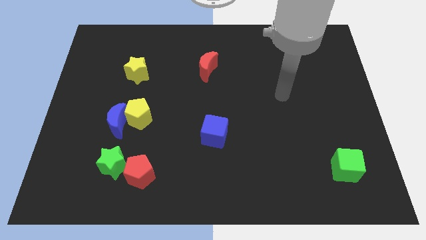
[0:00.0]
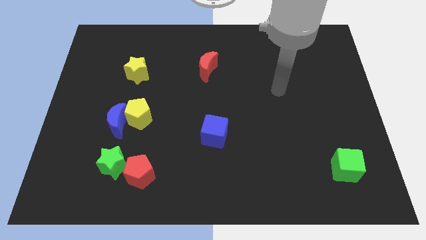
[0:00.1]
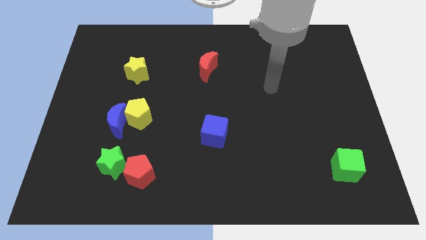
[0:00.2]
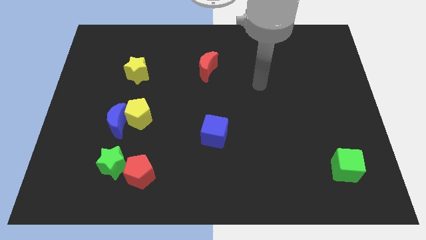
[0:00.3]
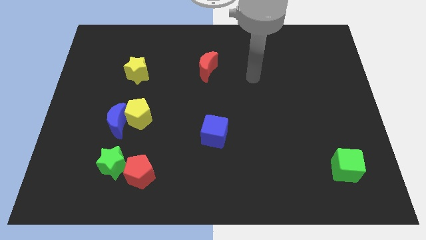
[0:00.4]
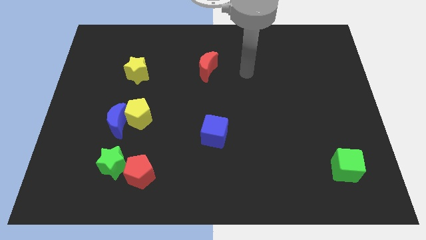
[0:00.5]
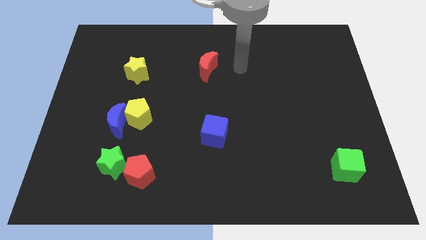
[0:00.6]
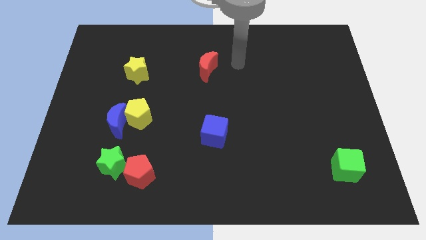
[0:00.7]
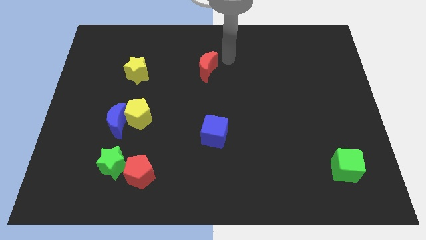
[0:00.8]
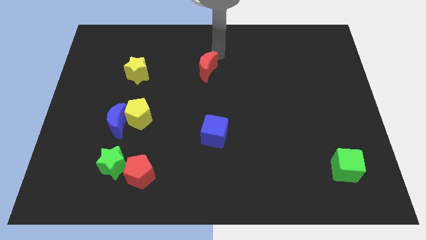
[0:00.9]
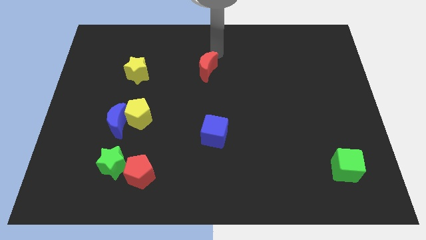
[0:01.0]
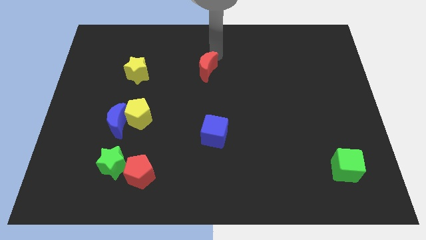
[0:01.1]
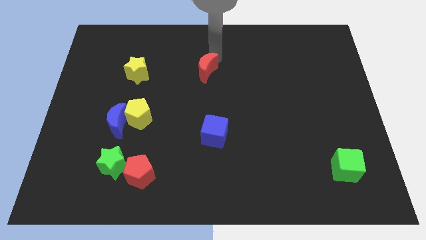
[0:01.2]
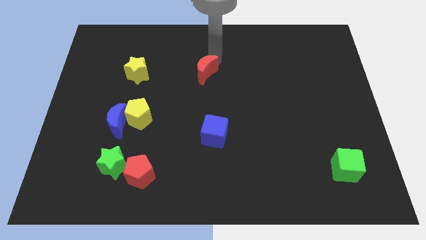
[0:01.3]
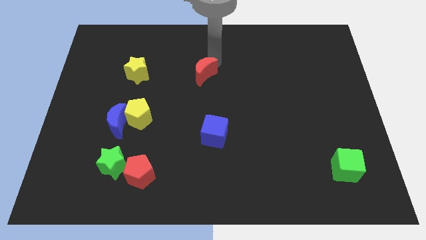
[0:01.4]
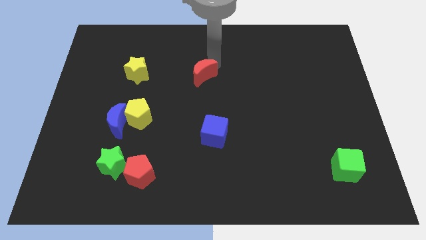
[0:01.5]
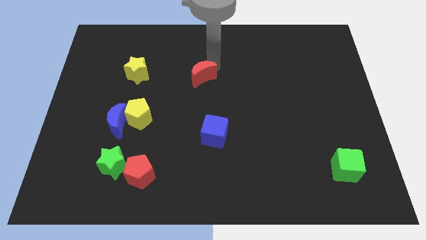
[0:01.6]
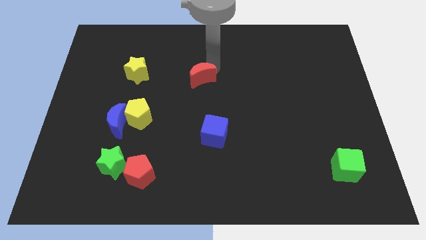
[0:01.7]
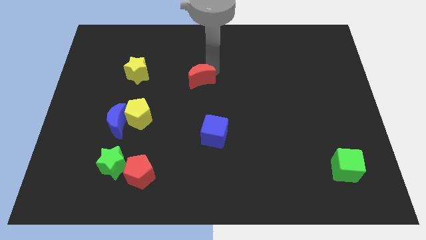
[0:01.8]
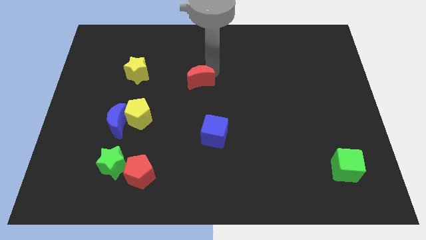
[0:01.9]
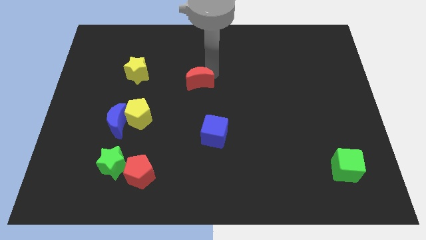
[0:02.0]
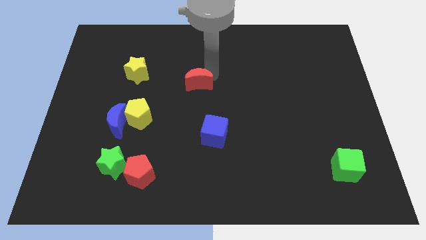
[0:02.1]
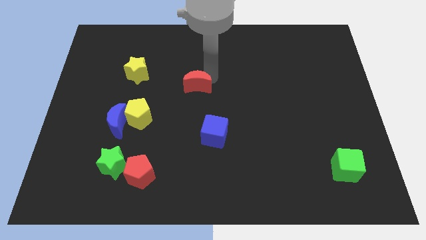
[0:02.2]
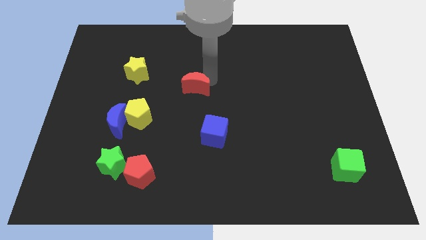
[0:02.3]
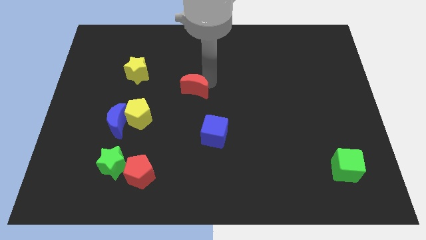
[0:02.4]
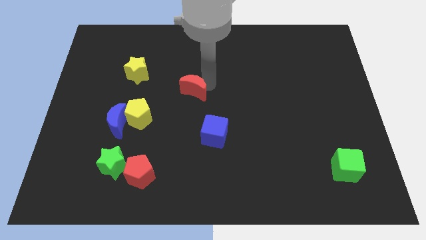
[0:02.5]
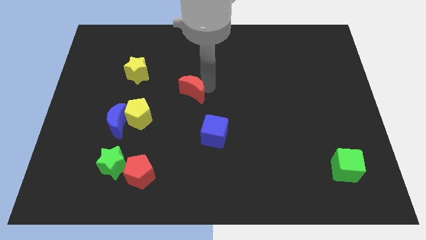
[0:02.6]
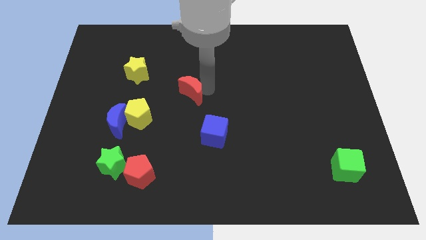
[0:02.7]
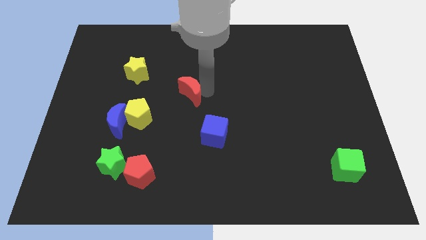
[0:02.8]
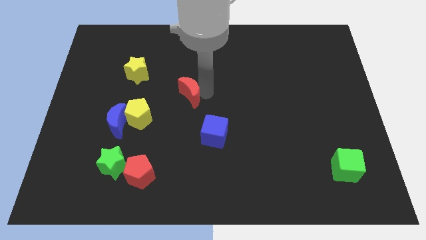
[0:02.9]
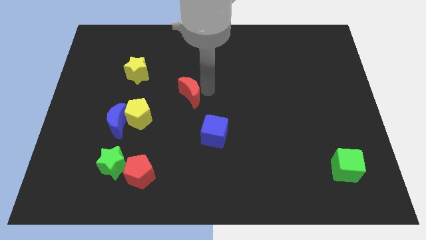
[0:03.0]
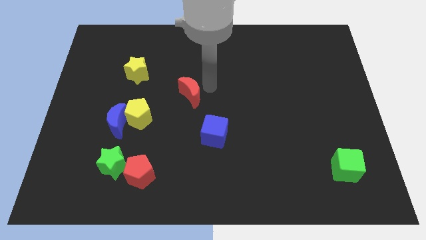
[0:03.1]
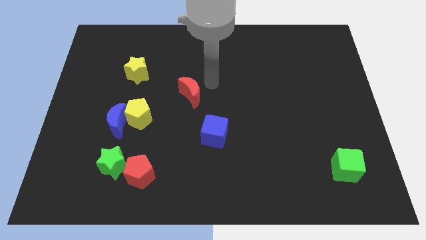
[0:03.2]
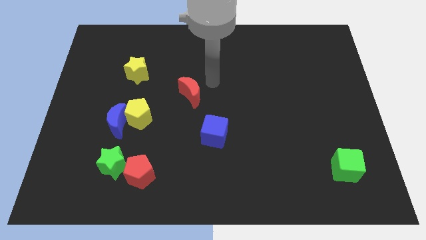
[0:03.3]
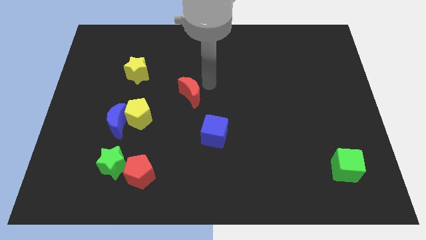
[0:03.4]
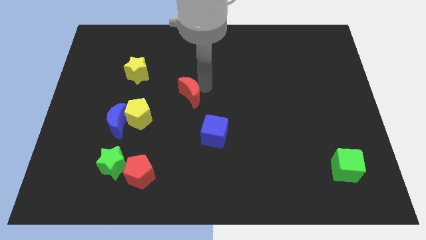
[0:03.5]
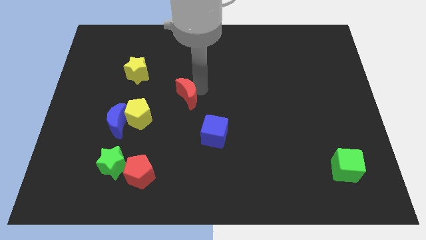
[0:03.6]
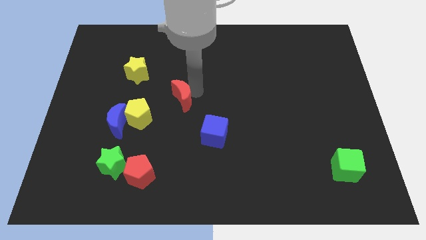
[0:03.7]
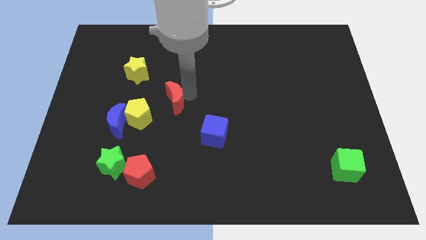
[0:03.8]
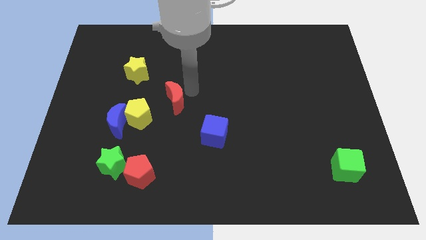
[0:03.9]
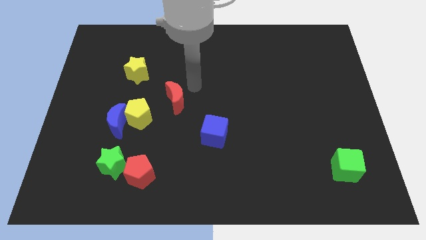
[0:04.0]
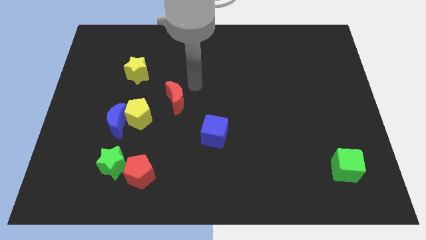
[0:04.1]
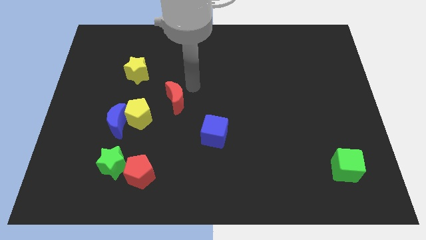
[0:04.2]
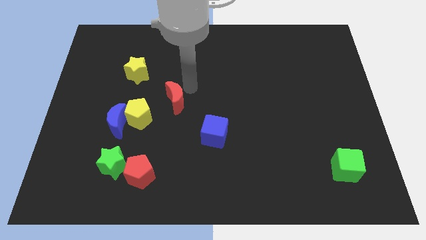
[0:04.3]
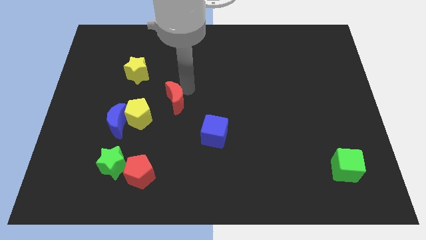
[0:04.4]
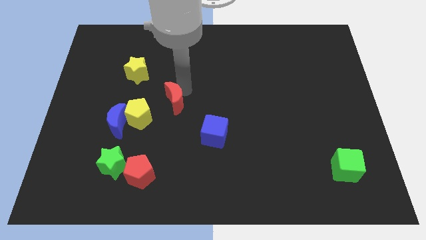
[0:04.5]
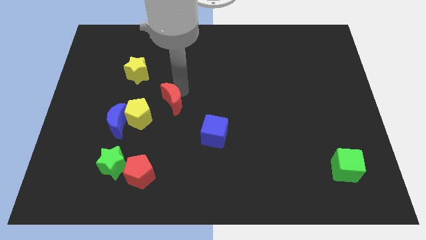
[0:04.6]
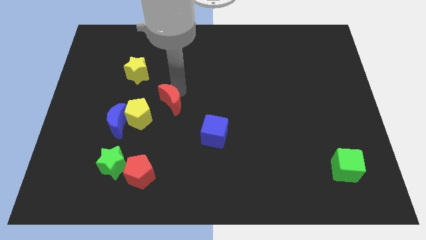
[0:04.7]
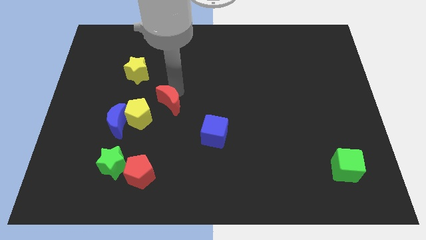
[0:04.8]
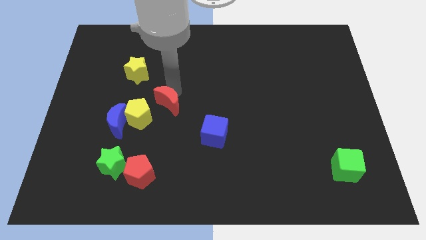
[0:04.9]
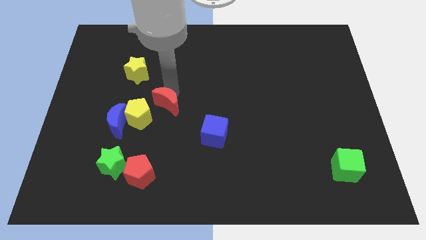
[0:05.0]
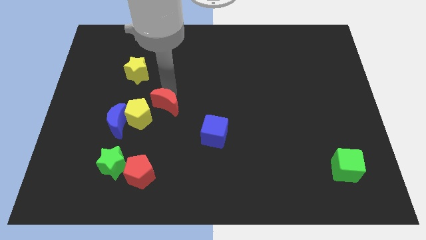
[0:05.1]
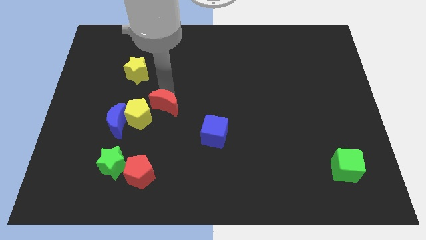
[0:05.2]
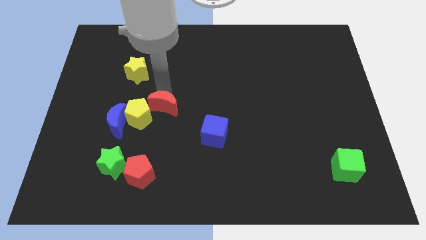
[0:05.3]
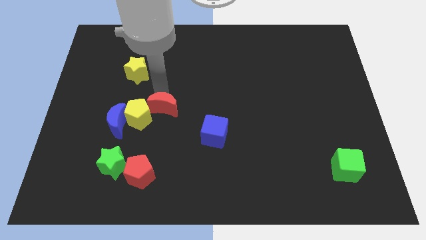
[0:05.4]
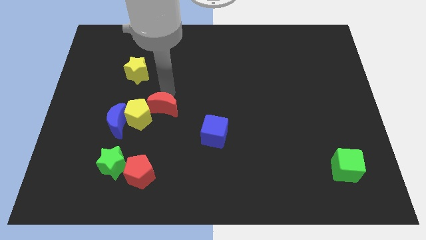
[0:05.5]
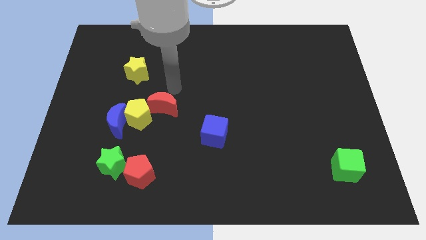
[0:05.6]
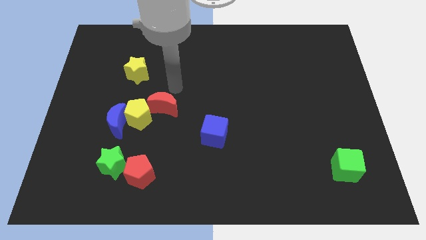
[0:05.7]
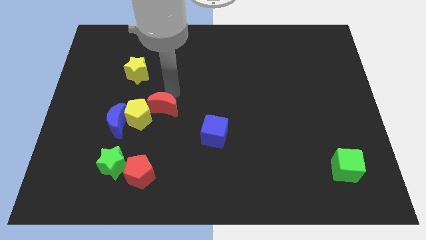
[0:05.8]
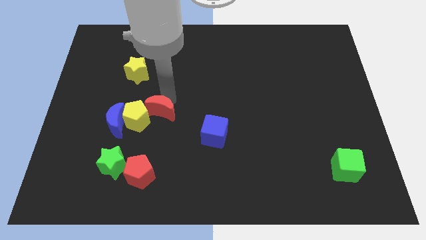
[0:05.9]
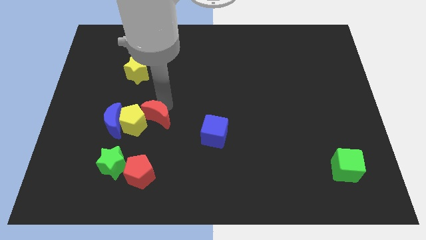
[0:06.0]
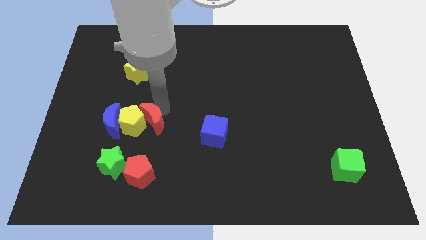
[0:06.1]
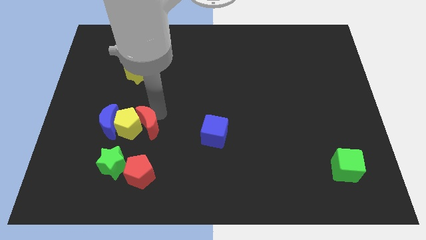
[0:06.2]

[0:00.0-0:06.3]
slide the red moon diagonally down and left

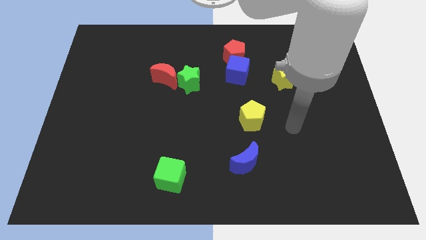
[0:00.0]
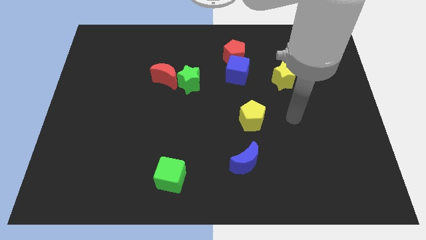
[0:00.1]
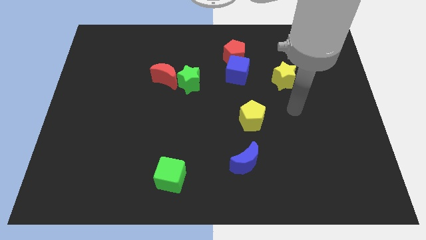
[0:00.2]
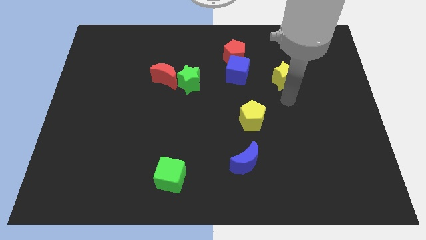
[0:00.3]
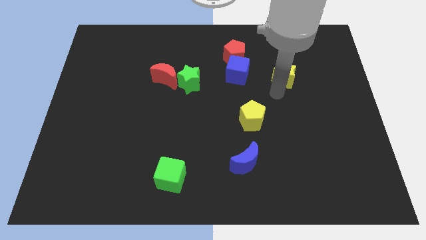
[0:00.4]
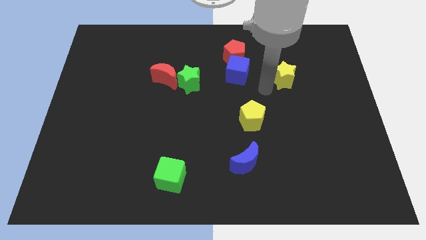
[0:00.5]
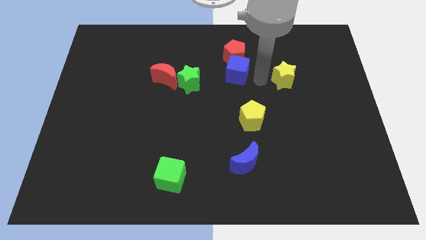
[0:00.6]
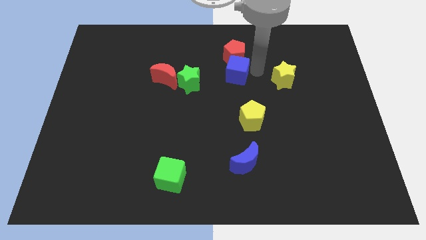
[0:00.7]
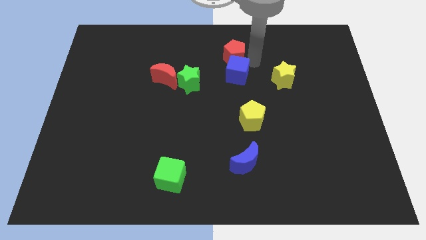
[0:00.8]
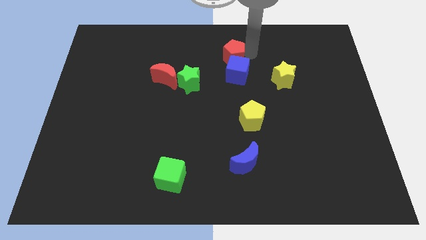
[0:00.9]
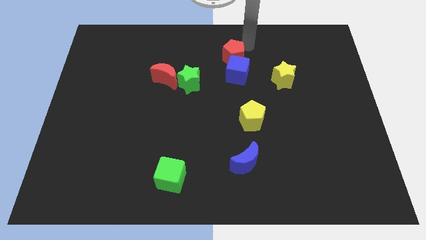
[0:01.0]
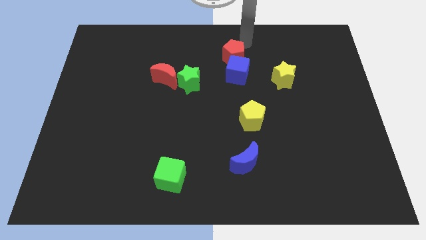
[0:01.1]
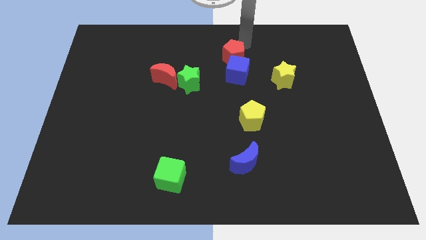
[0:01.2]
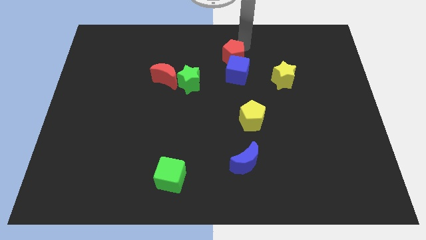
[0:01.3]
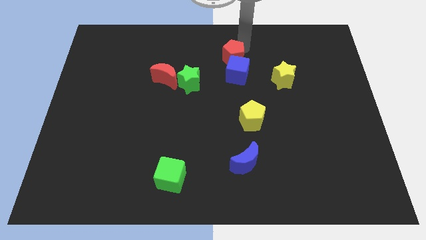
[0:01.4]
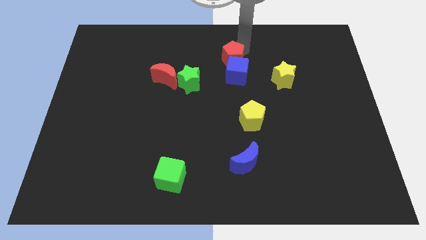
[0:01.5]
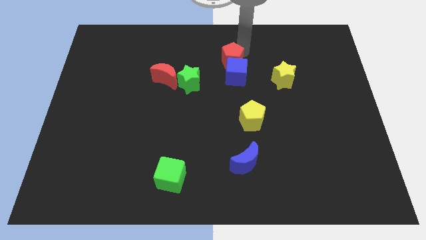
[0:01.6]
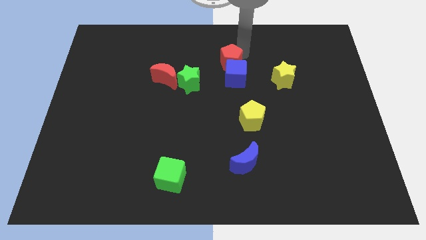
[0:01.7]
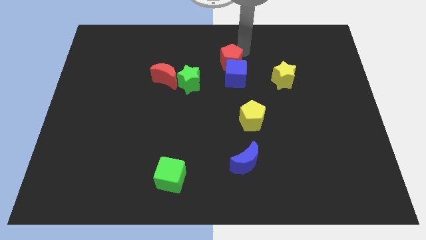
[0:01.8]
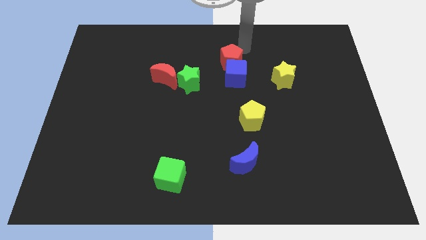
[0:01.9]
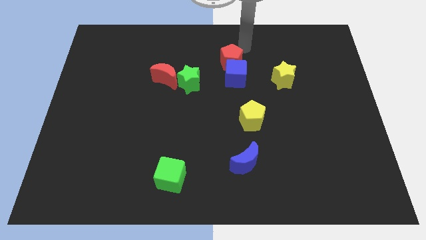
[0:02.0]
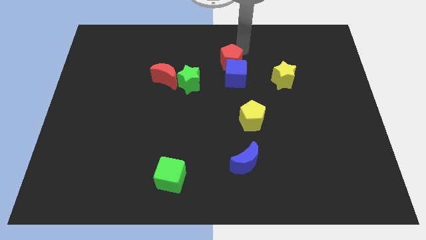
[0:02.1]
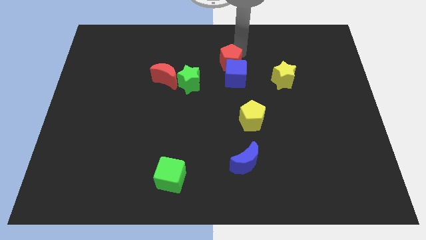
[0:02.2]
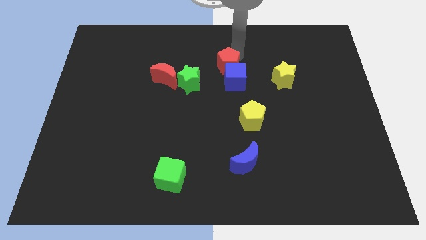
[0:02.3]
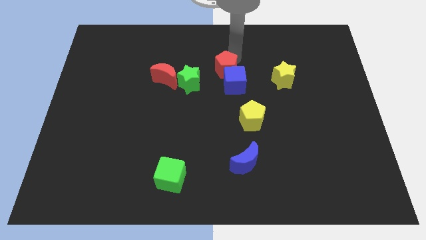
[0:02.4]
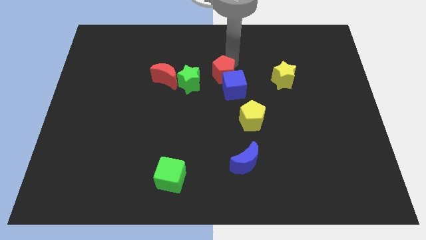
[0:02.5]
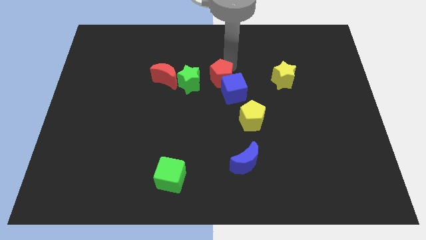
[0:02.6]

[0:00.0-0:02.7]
slightly move the red pentagon down and left diagonally
